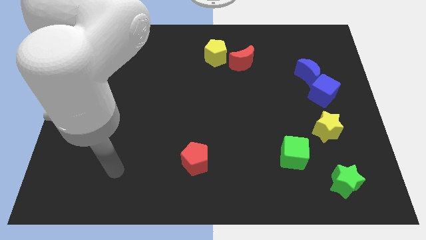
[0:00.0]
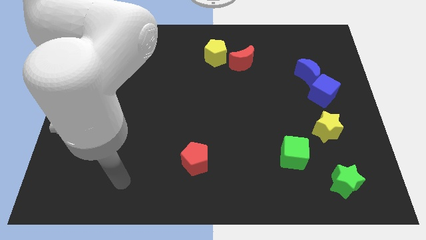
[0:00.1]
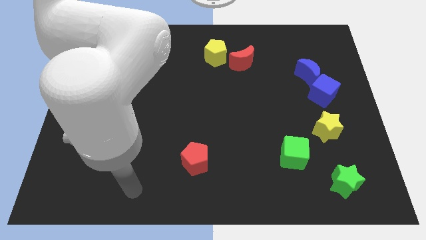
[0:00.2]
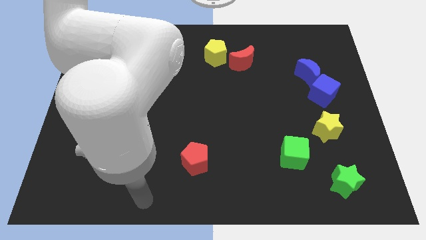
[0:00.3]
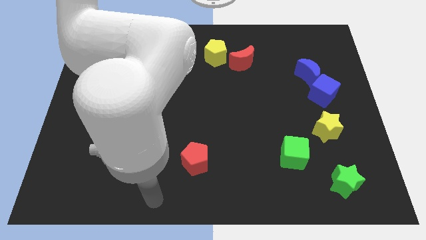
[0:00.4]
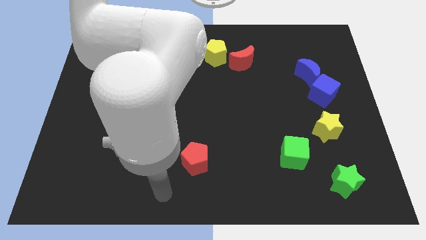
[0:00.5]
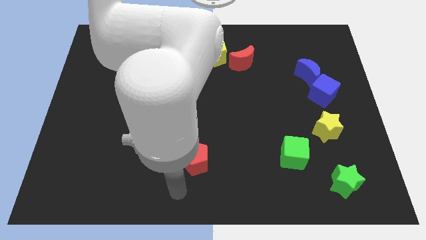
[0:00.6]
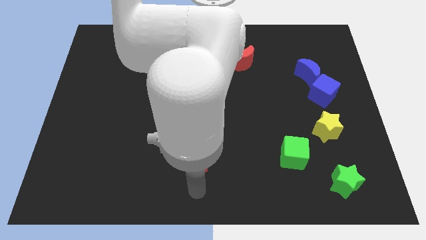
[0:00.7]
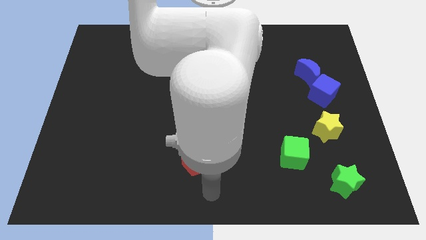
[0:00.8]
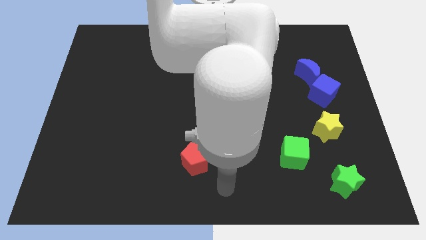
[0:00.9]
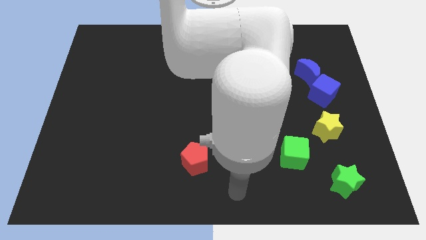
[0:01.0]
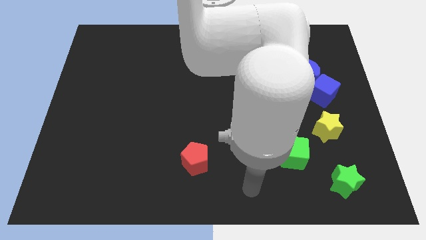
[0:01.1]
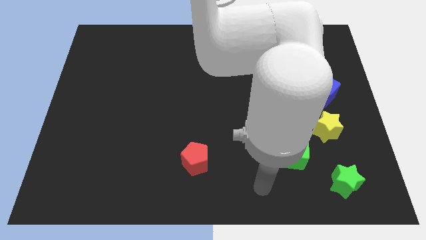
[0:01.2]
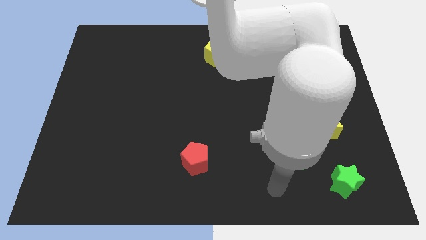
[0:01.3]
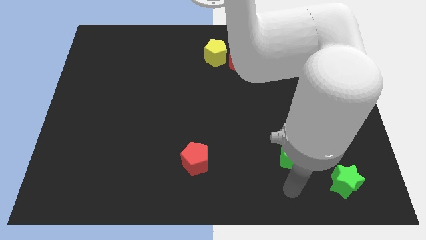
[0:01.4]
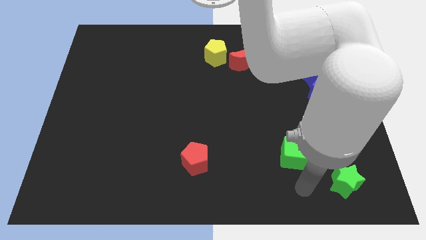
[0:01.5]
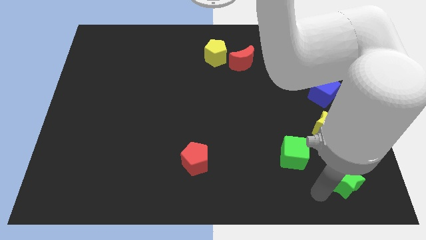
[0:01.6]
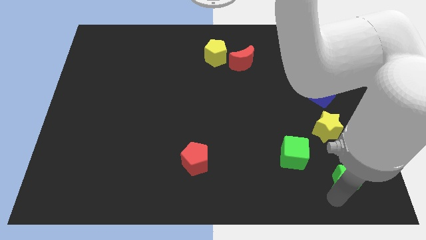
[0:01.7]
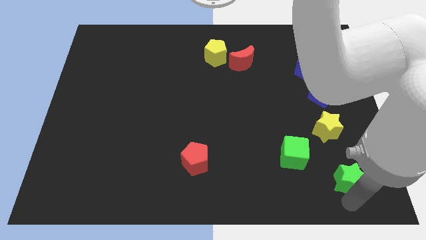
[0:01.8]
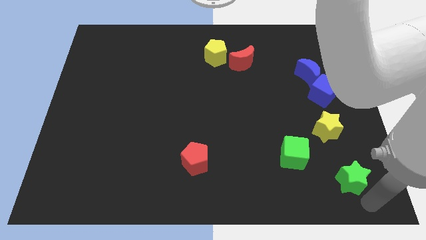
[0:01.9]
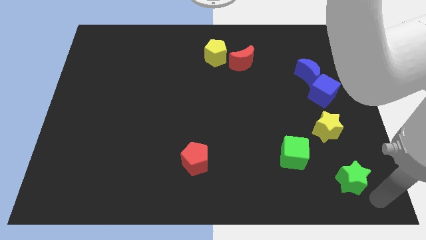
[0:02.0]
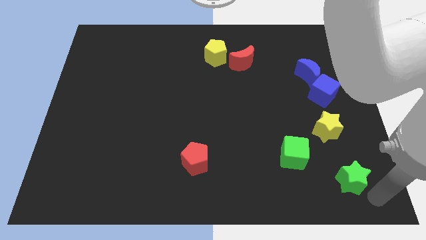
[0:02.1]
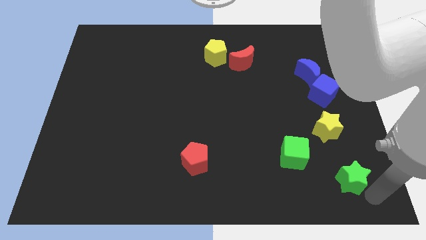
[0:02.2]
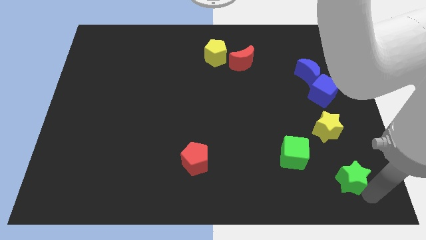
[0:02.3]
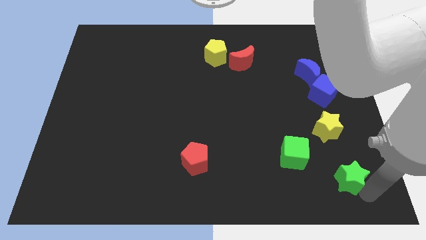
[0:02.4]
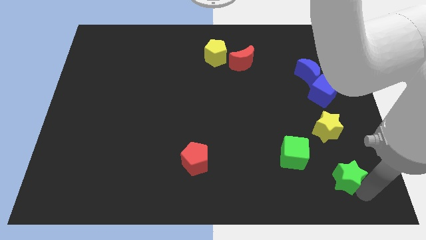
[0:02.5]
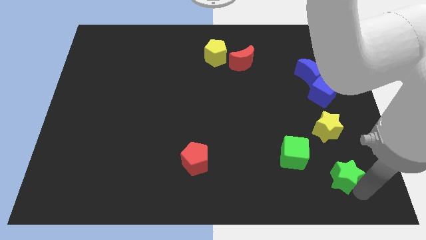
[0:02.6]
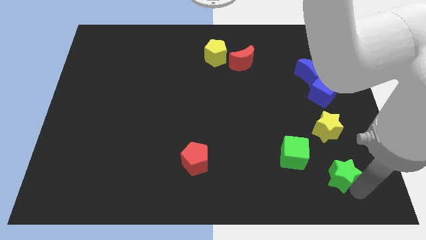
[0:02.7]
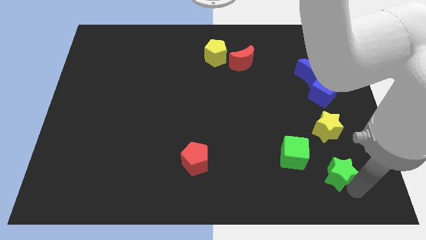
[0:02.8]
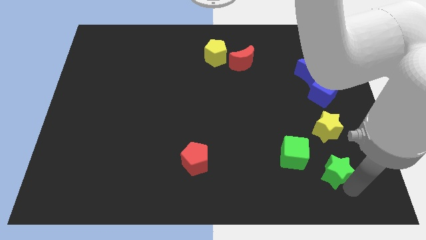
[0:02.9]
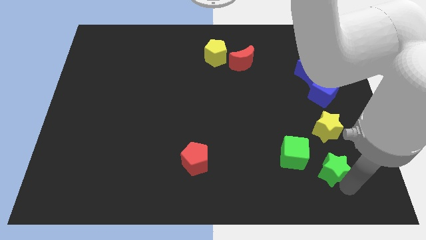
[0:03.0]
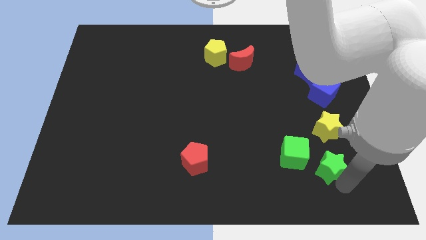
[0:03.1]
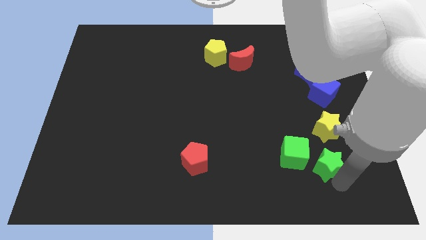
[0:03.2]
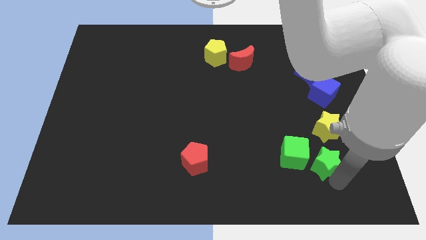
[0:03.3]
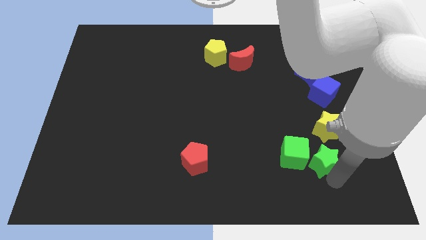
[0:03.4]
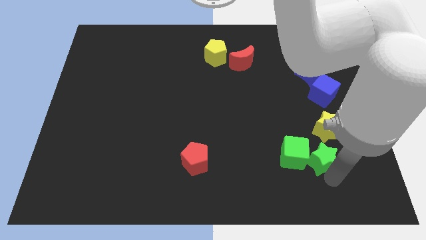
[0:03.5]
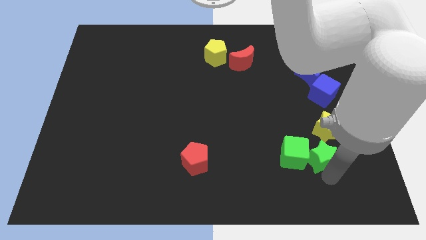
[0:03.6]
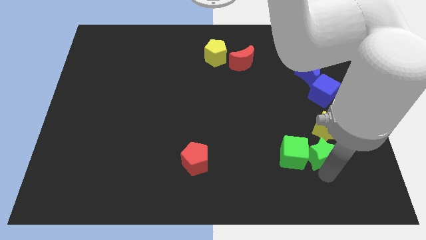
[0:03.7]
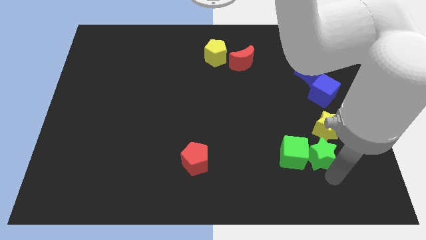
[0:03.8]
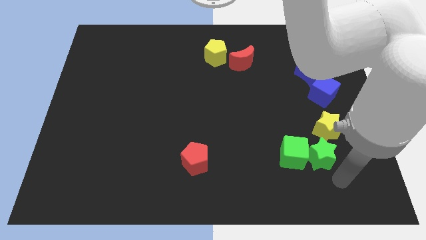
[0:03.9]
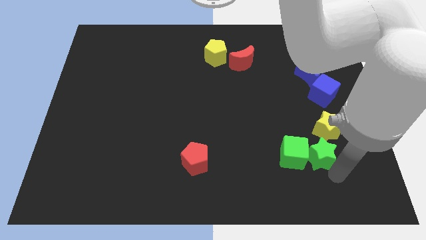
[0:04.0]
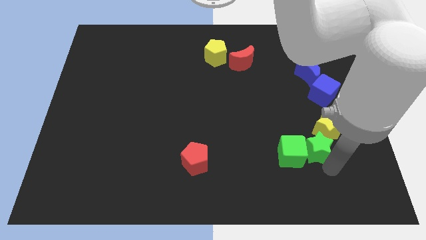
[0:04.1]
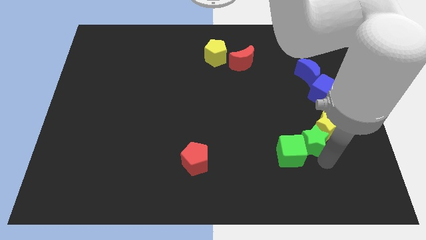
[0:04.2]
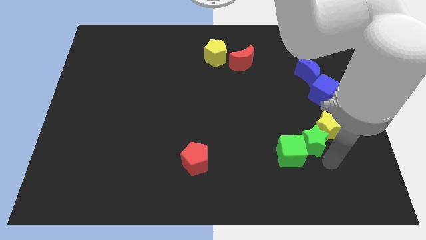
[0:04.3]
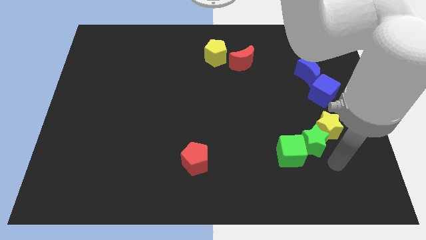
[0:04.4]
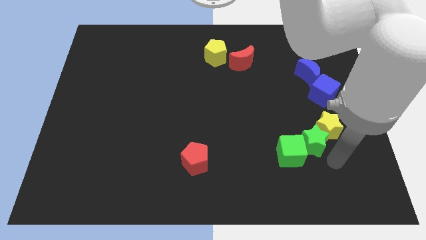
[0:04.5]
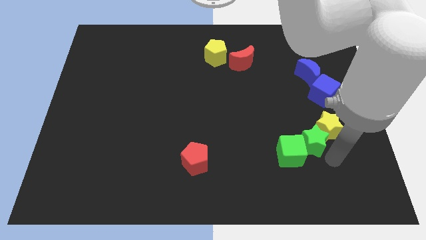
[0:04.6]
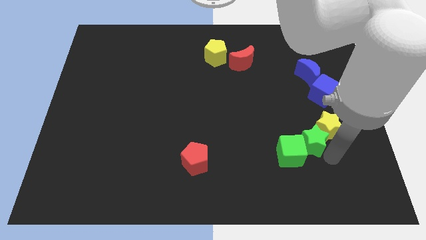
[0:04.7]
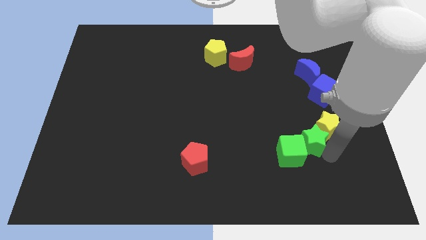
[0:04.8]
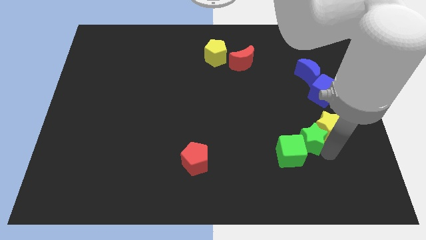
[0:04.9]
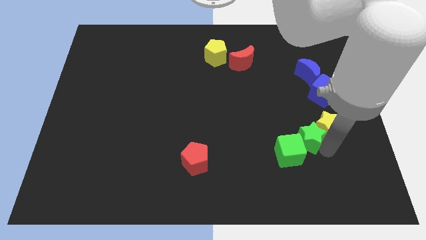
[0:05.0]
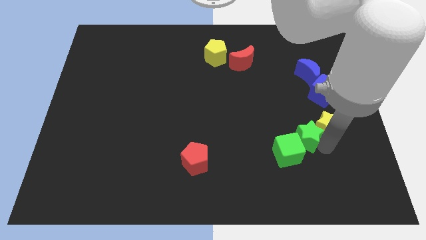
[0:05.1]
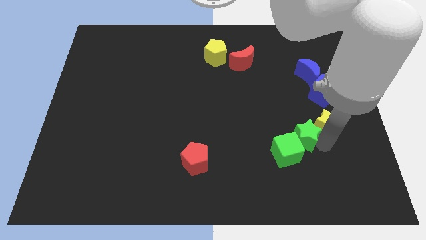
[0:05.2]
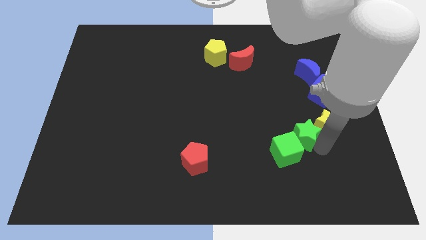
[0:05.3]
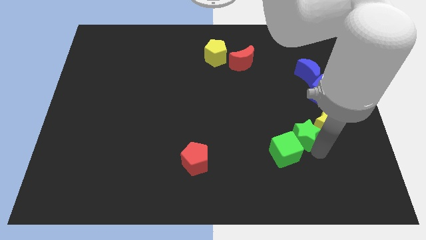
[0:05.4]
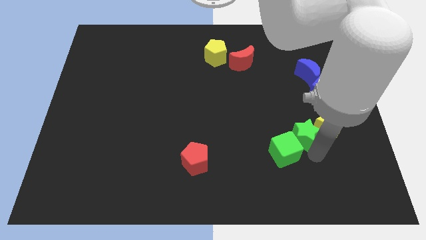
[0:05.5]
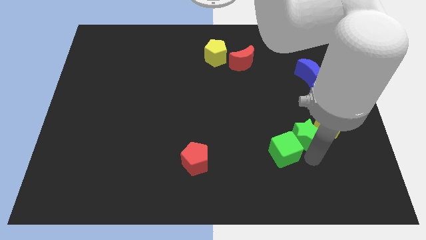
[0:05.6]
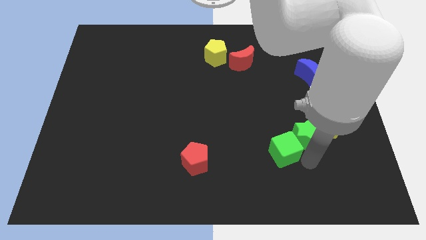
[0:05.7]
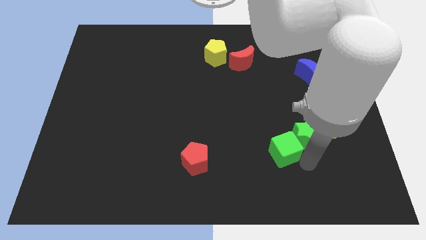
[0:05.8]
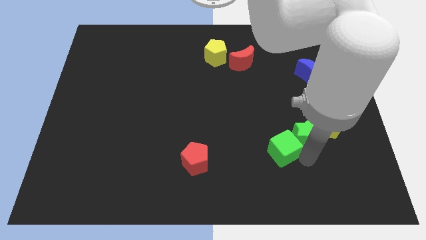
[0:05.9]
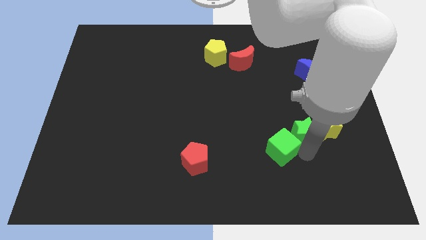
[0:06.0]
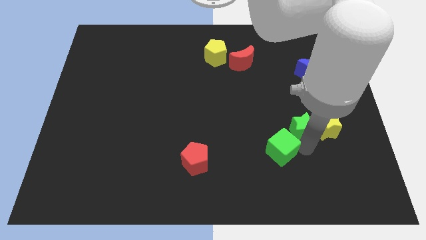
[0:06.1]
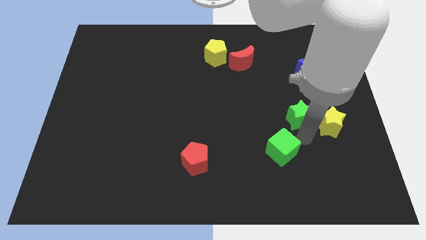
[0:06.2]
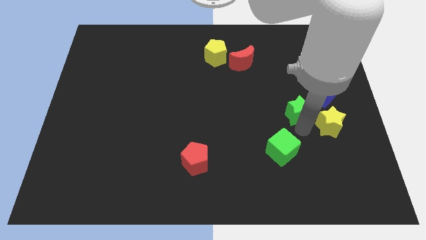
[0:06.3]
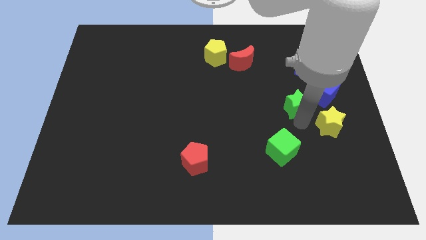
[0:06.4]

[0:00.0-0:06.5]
move the green star diagonally down and to the left of the blue moon

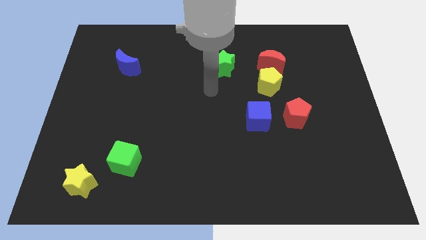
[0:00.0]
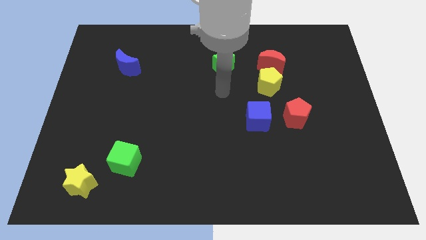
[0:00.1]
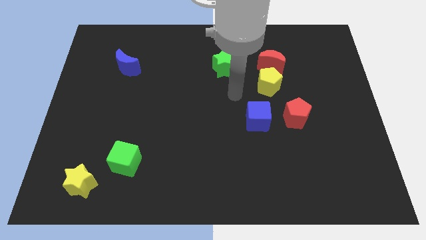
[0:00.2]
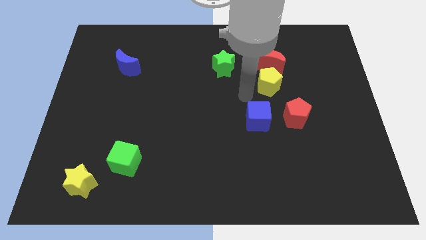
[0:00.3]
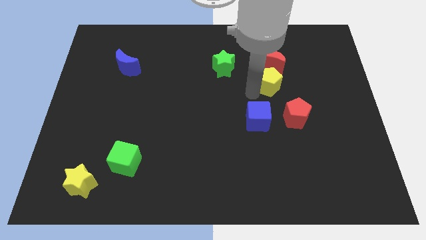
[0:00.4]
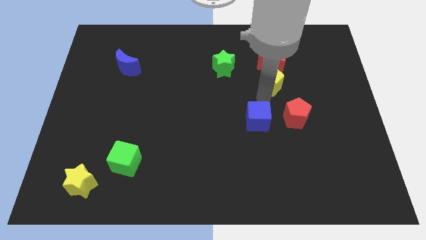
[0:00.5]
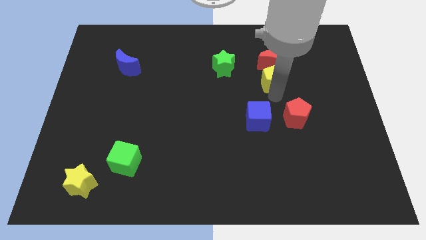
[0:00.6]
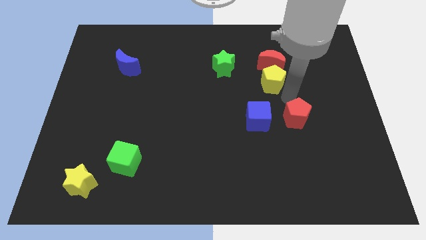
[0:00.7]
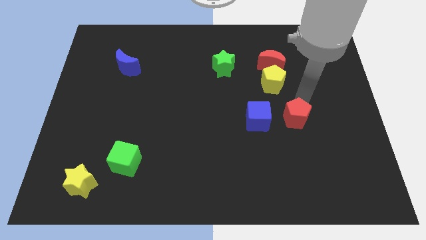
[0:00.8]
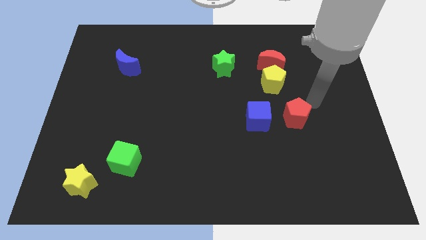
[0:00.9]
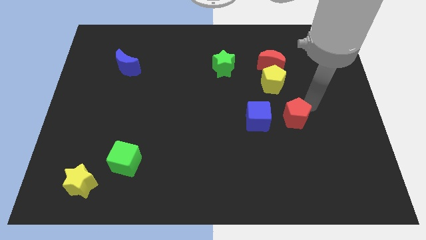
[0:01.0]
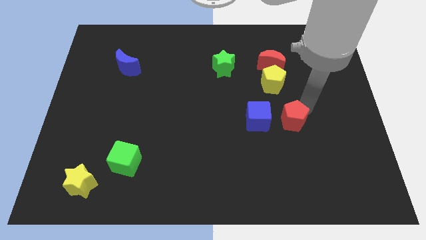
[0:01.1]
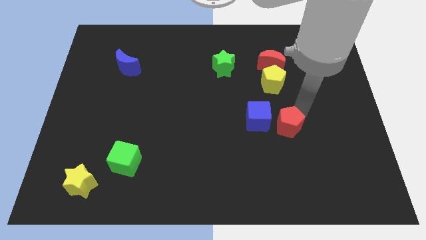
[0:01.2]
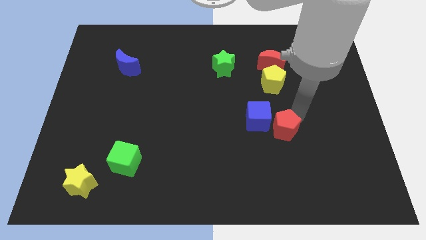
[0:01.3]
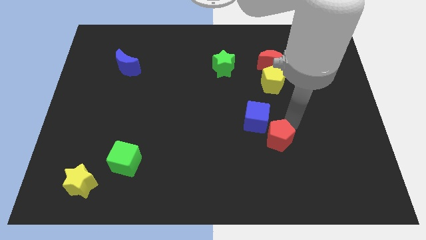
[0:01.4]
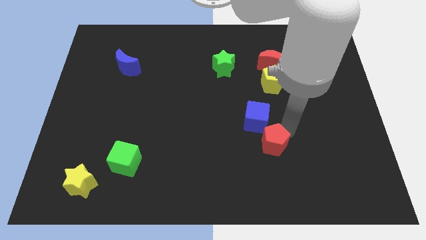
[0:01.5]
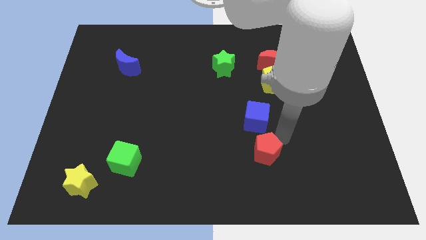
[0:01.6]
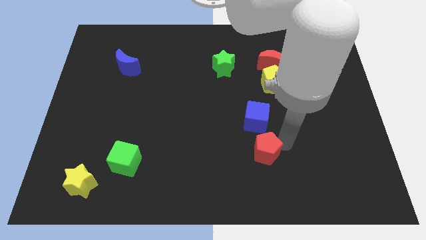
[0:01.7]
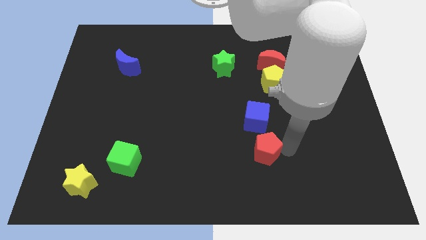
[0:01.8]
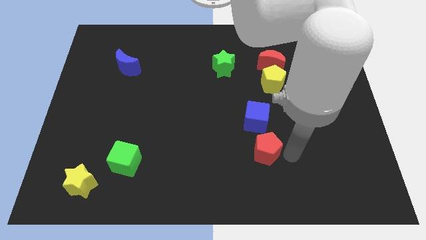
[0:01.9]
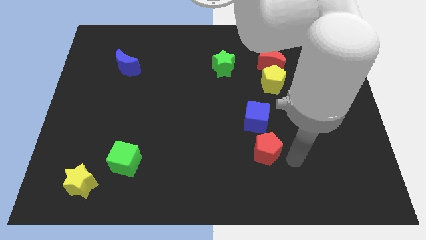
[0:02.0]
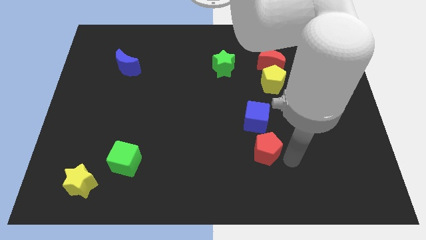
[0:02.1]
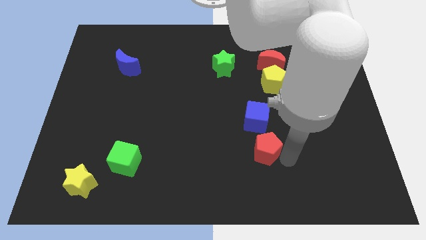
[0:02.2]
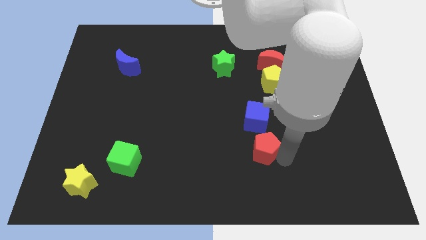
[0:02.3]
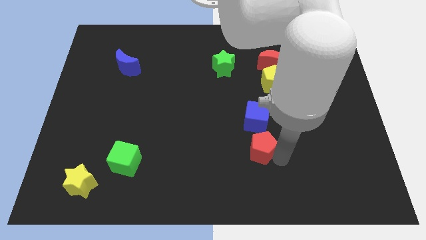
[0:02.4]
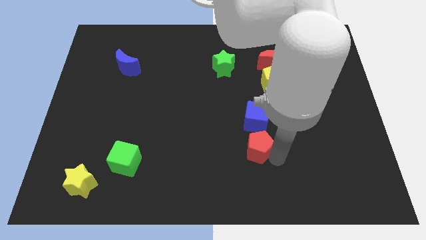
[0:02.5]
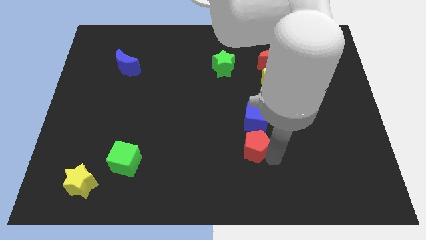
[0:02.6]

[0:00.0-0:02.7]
put the red pentagon to the bottom left of the blue cube
